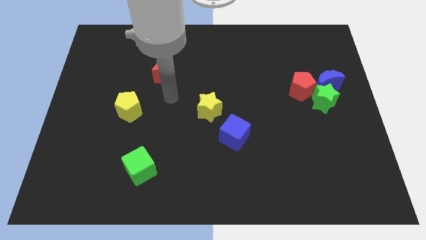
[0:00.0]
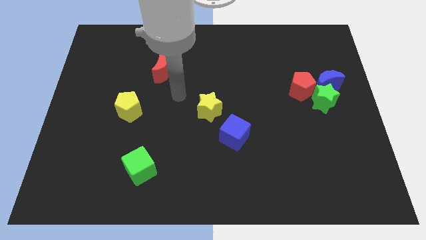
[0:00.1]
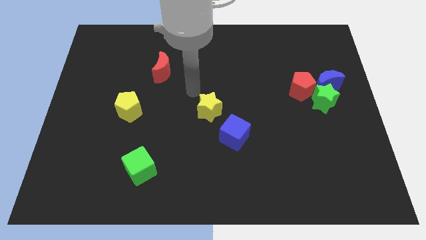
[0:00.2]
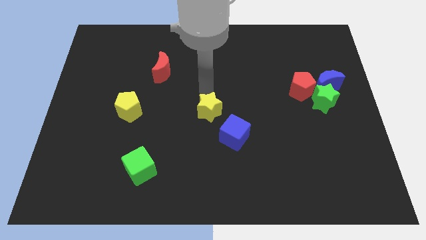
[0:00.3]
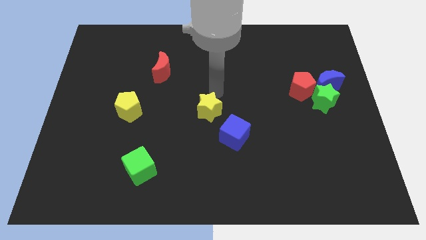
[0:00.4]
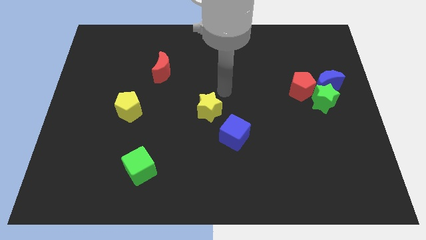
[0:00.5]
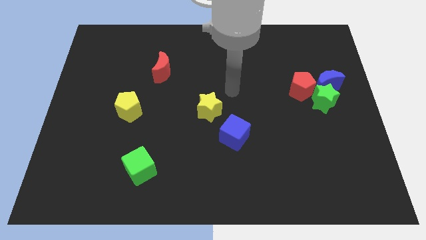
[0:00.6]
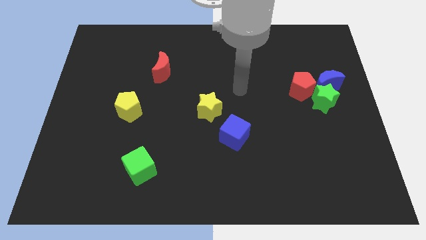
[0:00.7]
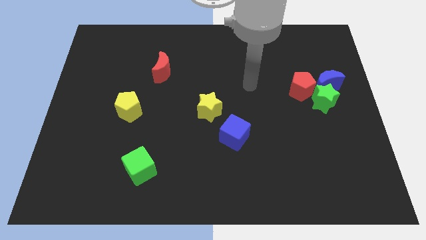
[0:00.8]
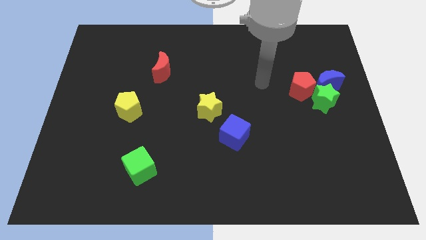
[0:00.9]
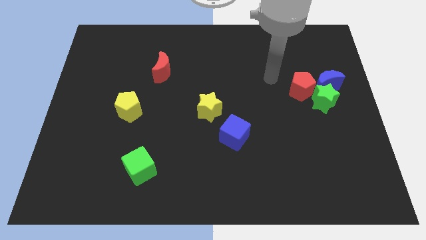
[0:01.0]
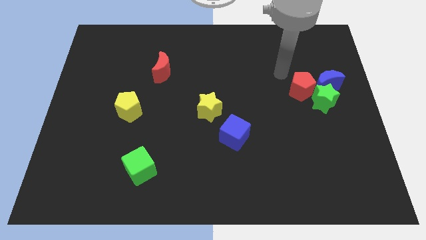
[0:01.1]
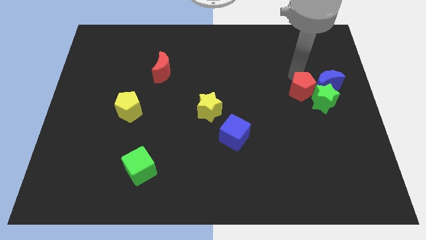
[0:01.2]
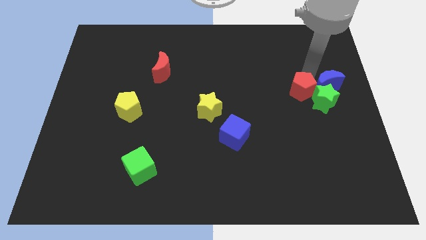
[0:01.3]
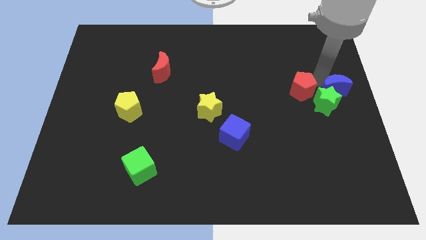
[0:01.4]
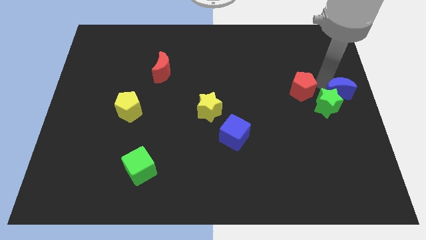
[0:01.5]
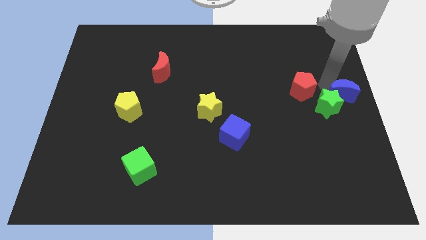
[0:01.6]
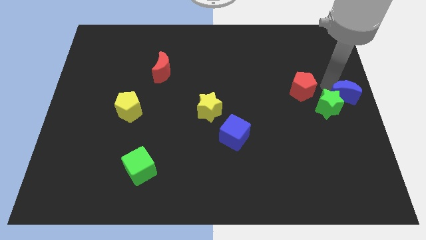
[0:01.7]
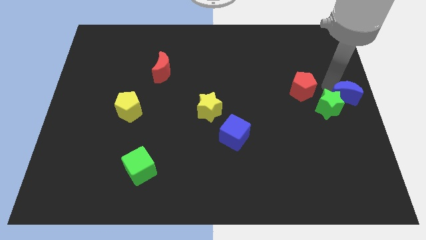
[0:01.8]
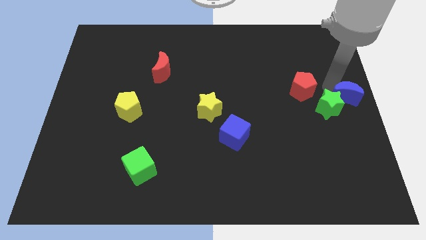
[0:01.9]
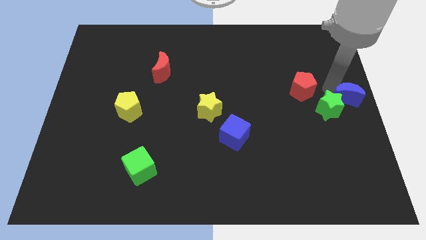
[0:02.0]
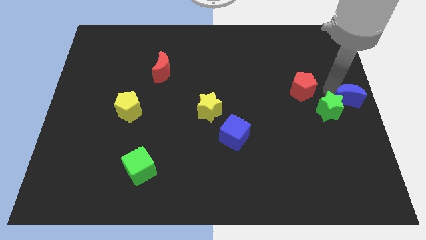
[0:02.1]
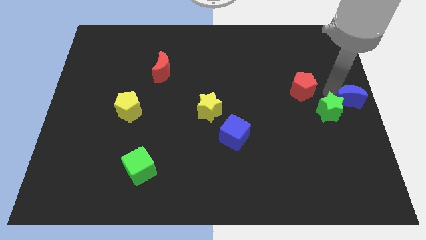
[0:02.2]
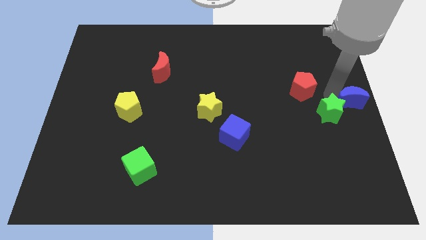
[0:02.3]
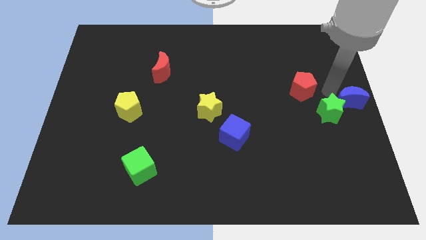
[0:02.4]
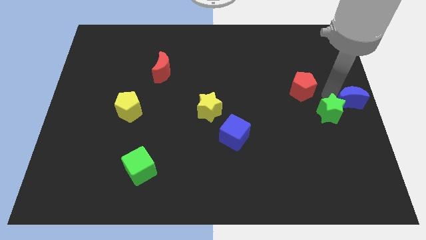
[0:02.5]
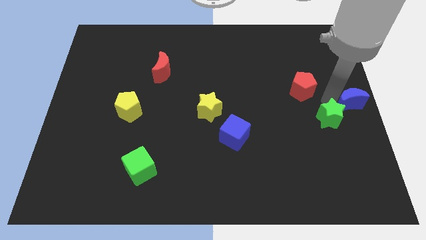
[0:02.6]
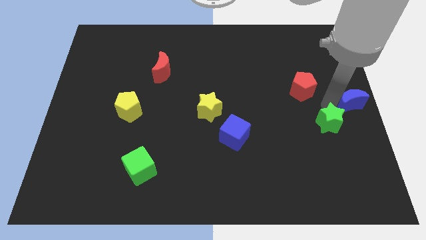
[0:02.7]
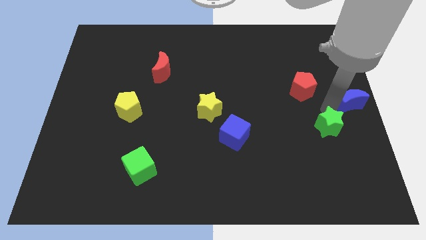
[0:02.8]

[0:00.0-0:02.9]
slightly slide the green star down

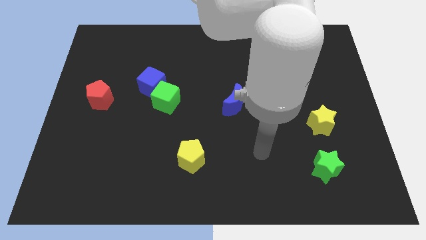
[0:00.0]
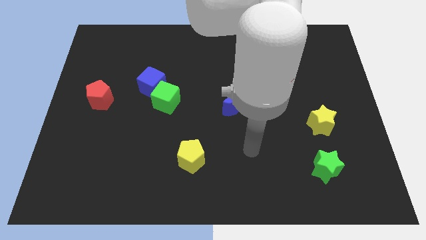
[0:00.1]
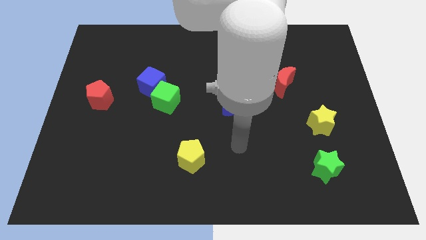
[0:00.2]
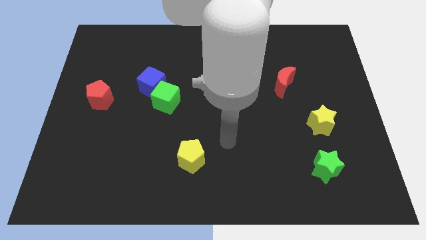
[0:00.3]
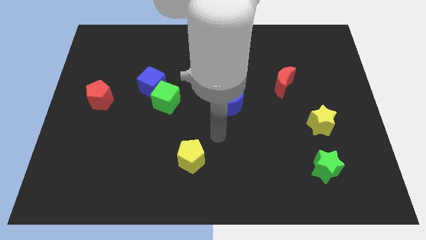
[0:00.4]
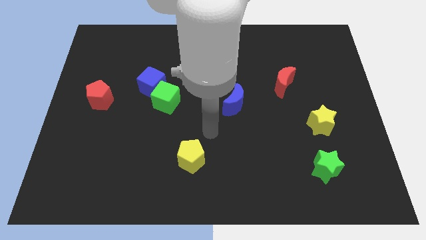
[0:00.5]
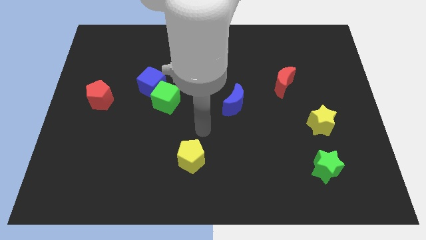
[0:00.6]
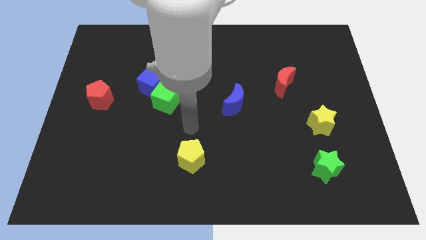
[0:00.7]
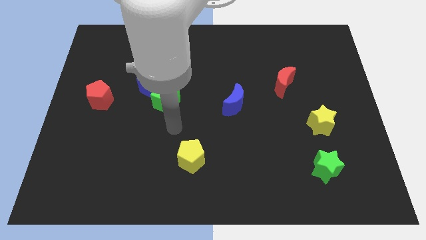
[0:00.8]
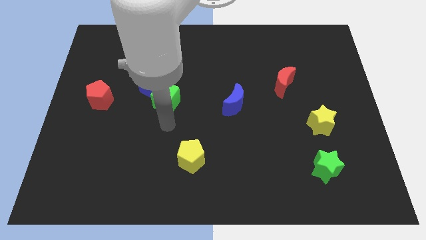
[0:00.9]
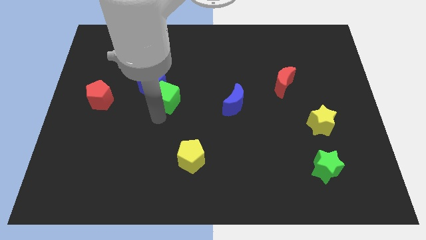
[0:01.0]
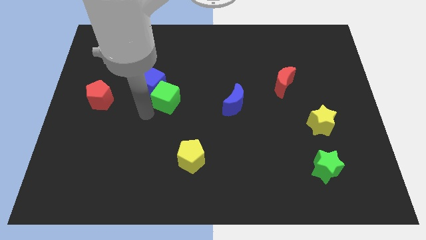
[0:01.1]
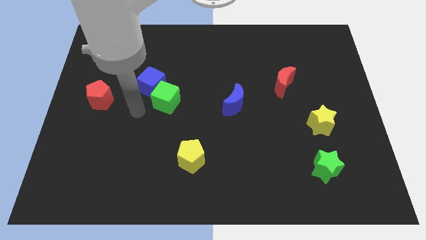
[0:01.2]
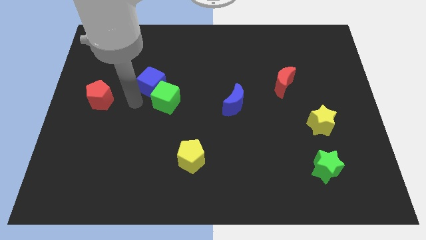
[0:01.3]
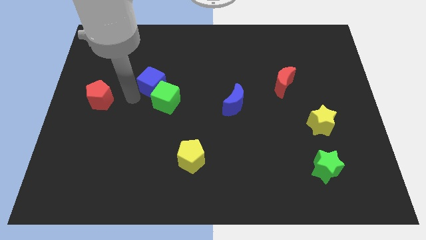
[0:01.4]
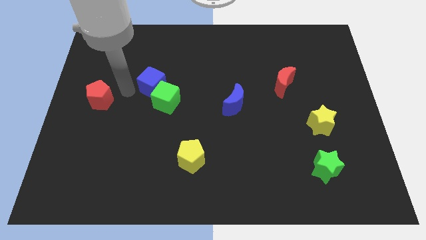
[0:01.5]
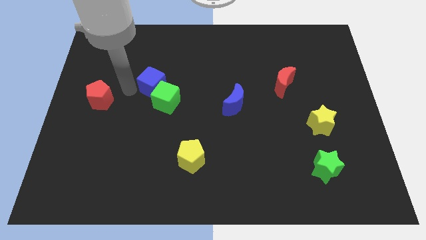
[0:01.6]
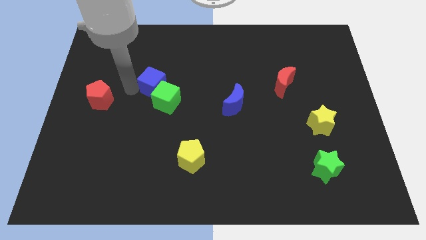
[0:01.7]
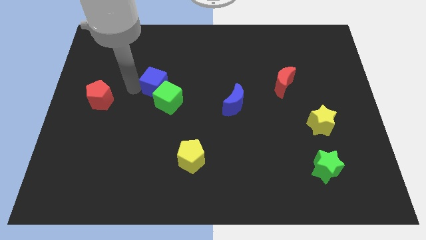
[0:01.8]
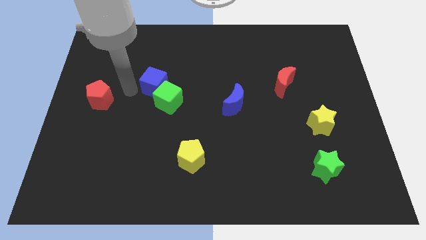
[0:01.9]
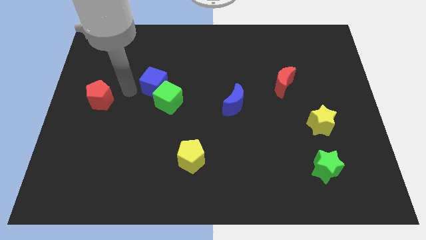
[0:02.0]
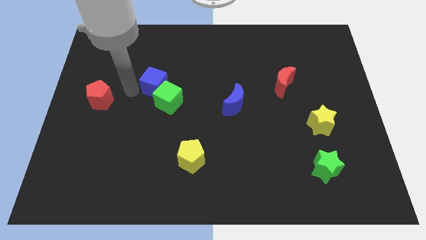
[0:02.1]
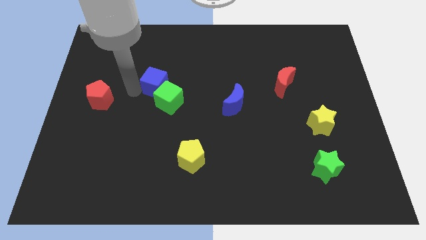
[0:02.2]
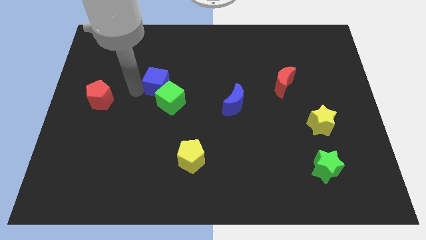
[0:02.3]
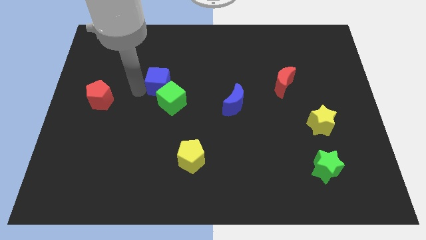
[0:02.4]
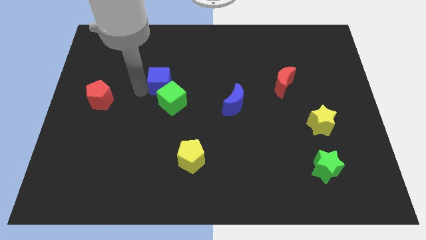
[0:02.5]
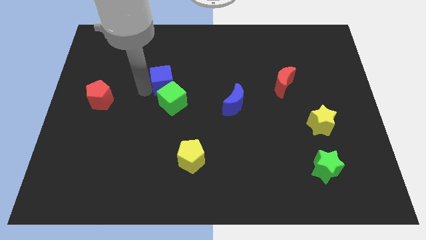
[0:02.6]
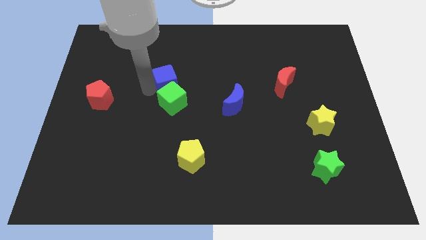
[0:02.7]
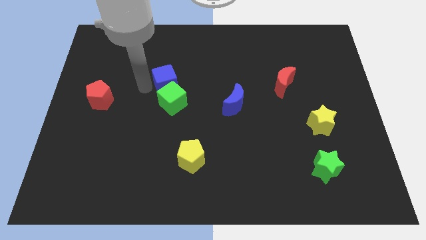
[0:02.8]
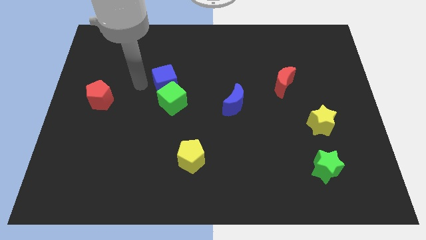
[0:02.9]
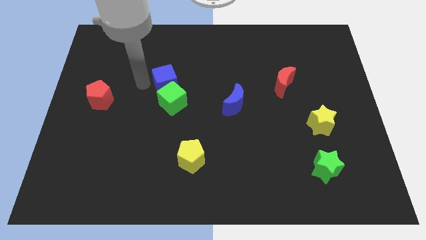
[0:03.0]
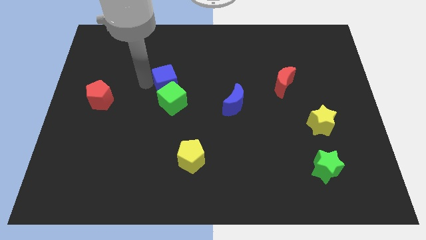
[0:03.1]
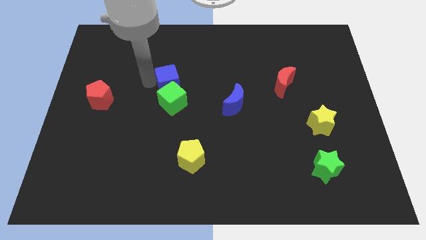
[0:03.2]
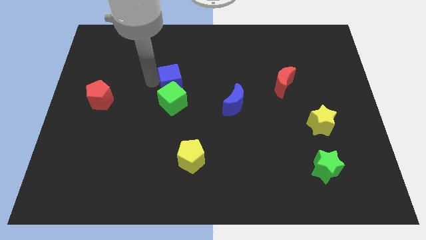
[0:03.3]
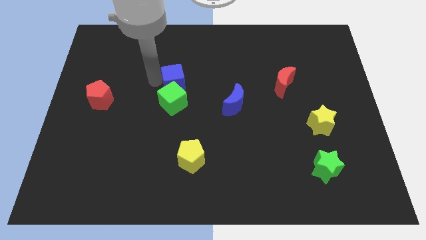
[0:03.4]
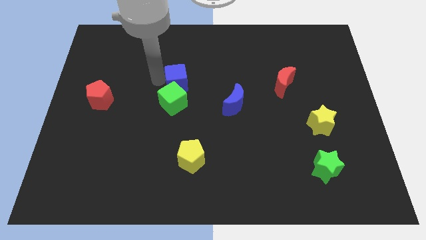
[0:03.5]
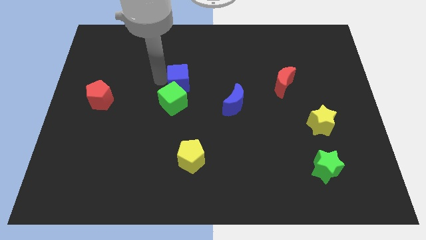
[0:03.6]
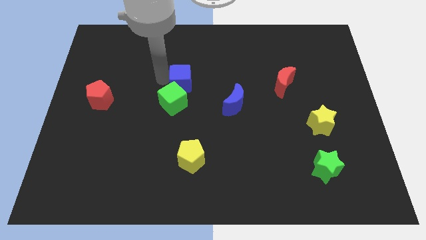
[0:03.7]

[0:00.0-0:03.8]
slightly push the blue cube to the right

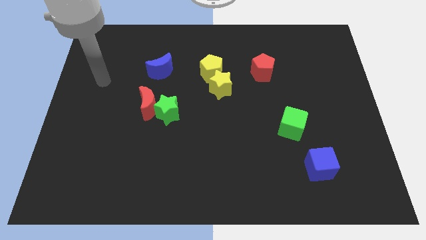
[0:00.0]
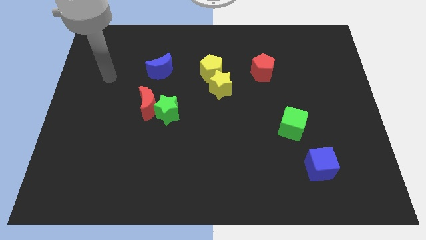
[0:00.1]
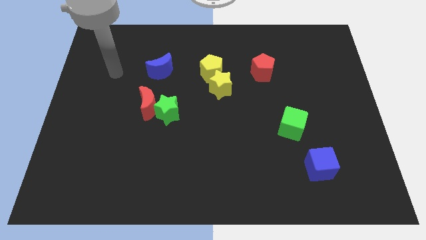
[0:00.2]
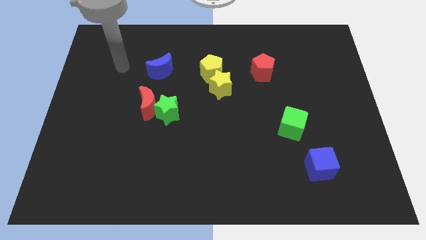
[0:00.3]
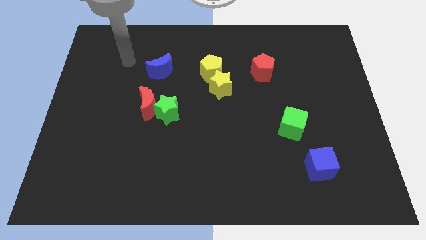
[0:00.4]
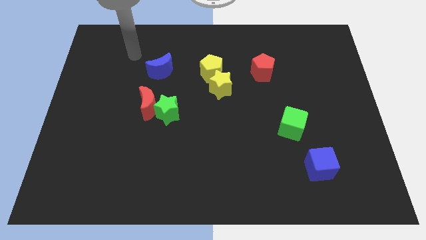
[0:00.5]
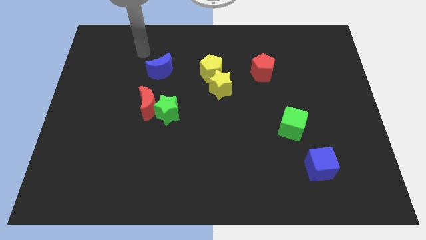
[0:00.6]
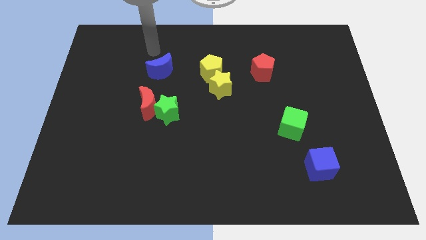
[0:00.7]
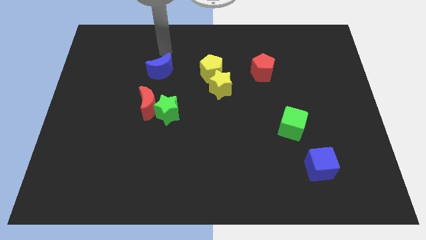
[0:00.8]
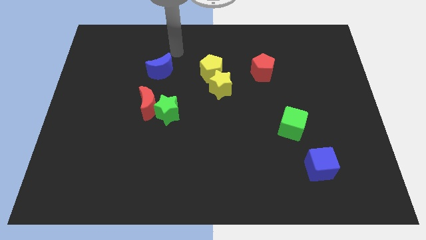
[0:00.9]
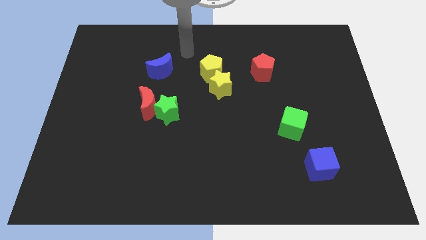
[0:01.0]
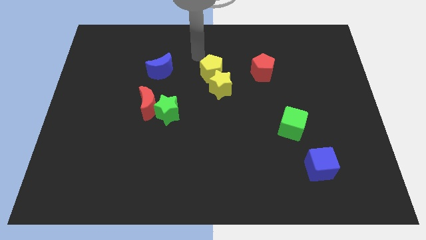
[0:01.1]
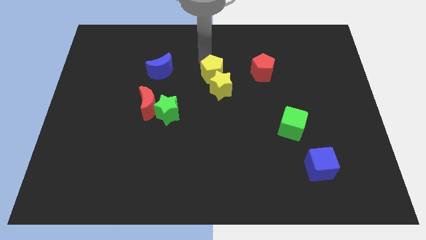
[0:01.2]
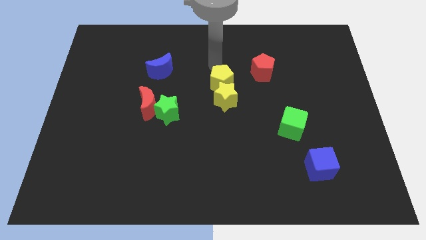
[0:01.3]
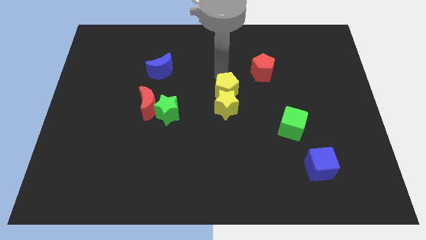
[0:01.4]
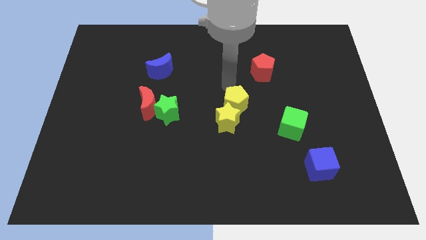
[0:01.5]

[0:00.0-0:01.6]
slide the yellow star down a bit
